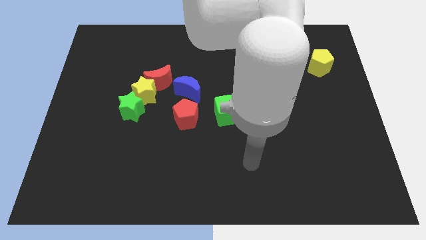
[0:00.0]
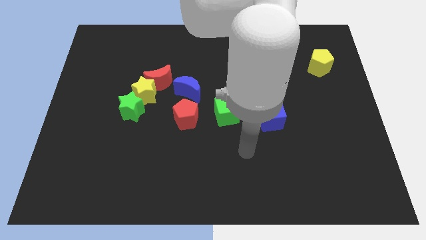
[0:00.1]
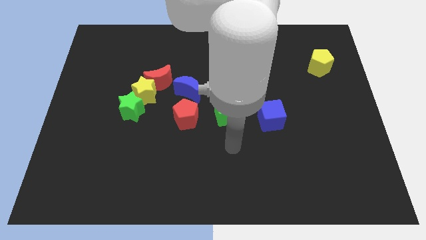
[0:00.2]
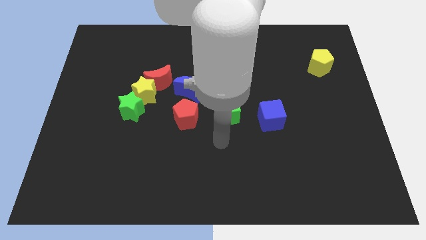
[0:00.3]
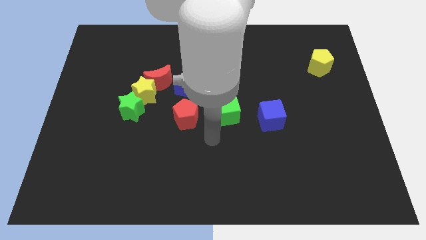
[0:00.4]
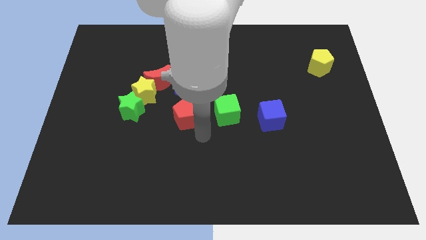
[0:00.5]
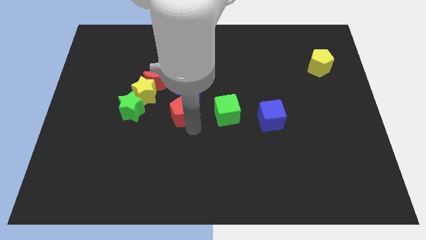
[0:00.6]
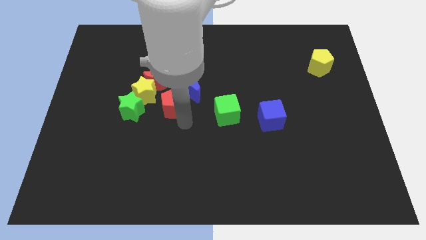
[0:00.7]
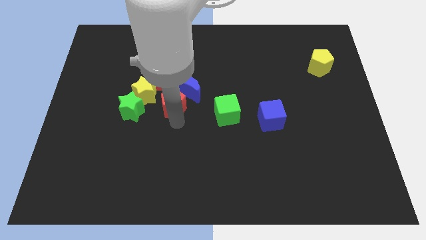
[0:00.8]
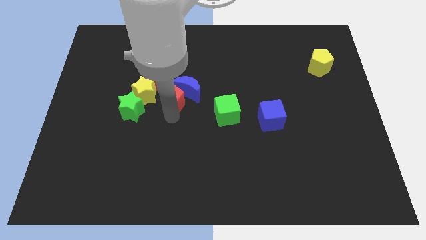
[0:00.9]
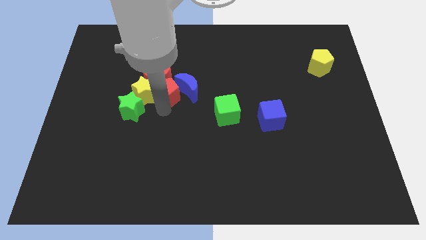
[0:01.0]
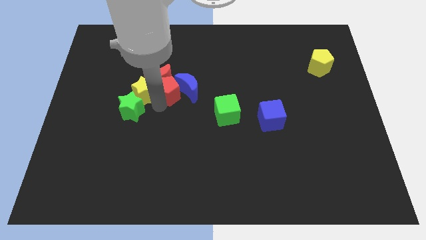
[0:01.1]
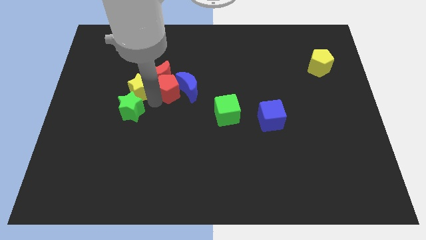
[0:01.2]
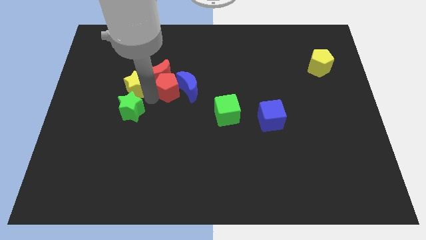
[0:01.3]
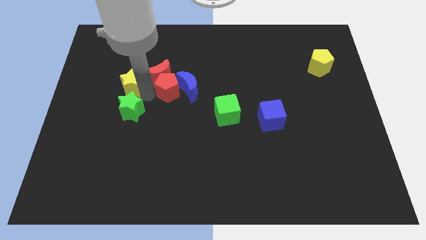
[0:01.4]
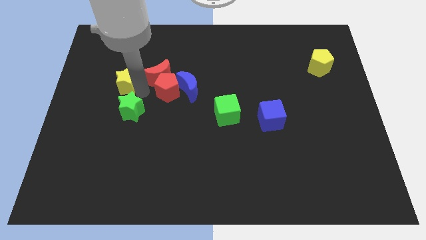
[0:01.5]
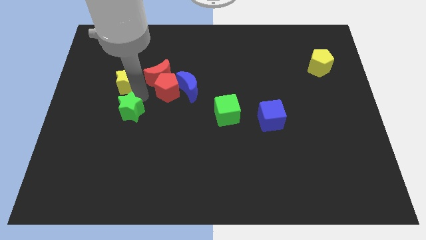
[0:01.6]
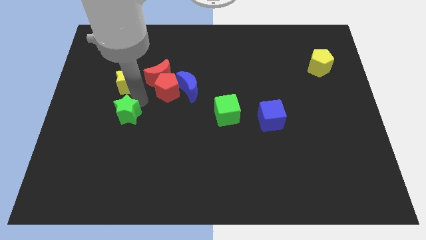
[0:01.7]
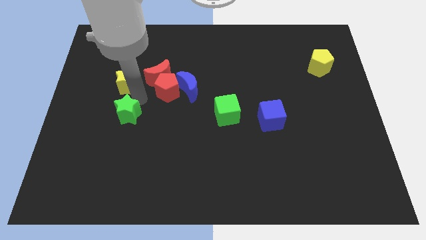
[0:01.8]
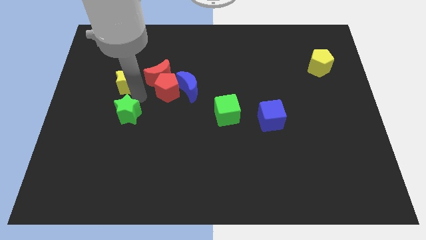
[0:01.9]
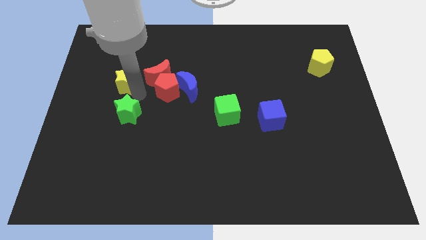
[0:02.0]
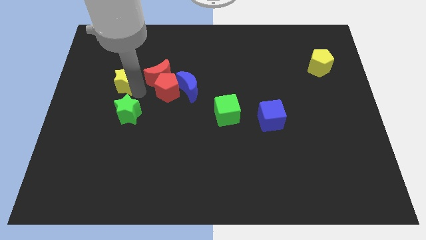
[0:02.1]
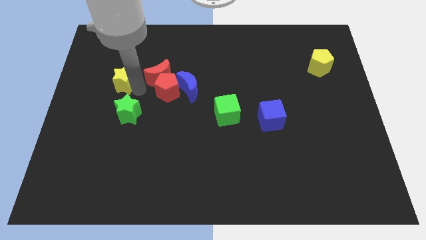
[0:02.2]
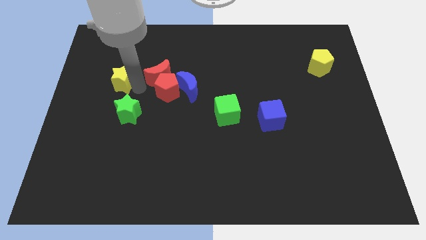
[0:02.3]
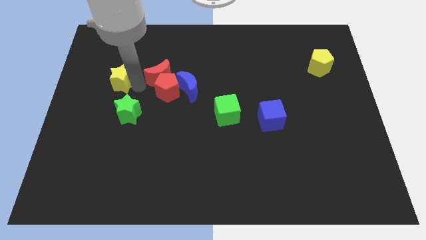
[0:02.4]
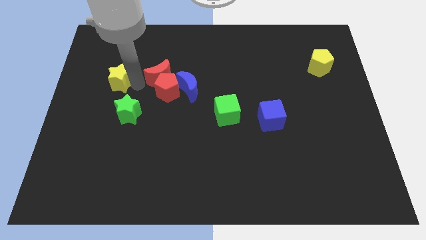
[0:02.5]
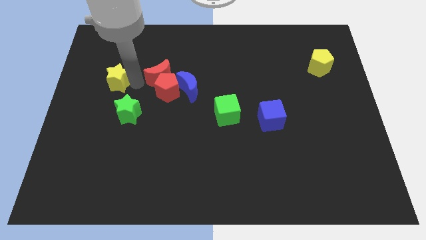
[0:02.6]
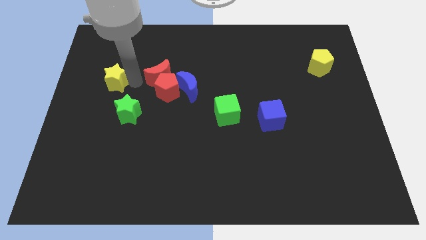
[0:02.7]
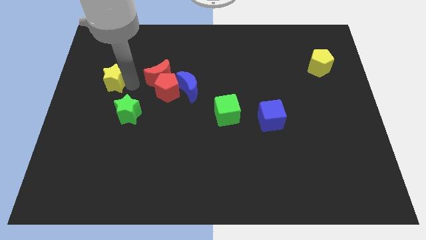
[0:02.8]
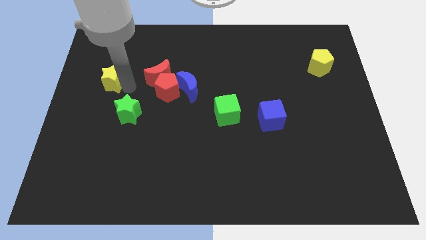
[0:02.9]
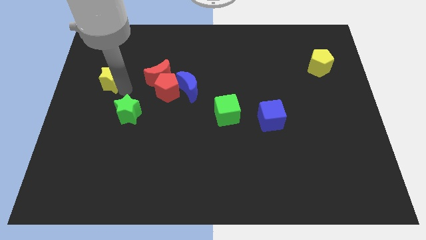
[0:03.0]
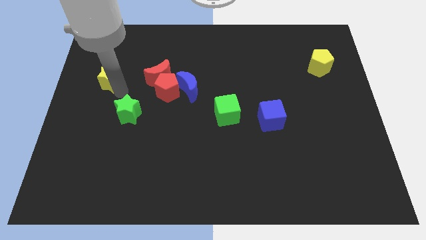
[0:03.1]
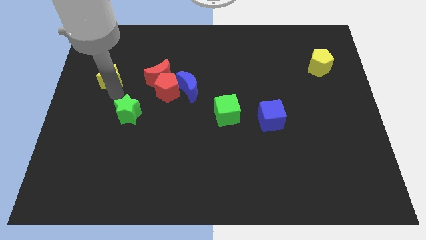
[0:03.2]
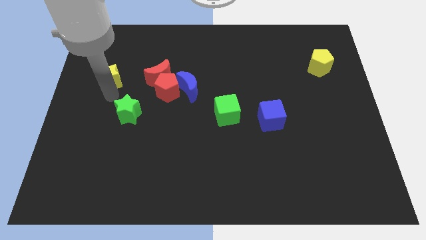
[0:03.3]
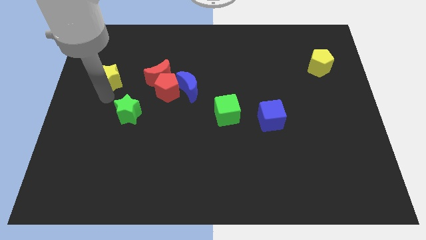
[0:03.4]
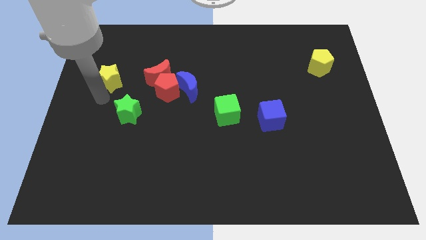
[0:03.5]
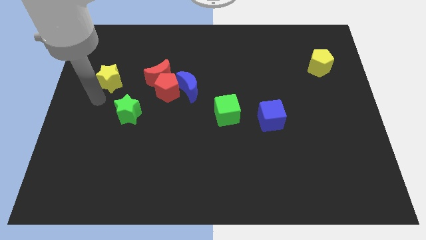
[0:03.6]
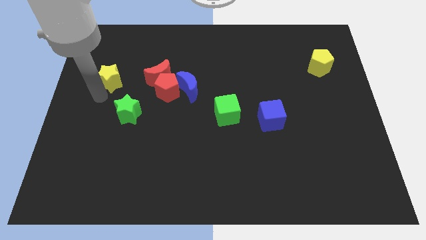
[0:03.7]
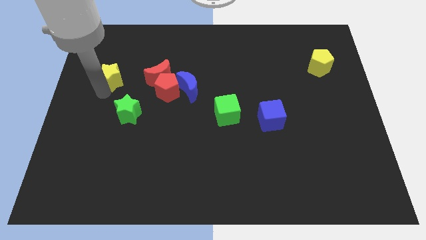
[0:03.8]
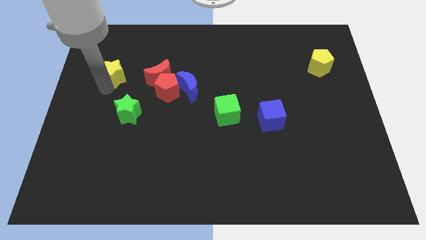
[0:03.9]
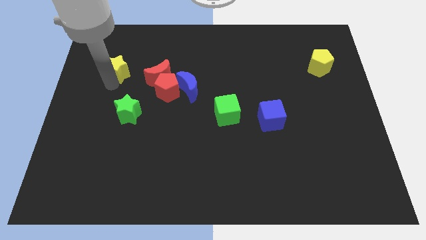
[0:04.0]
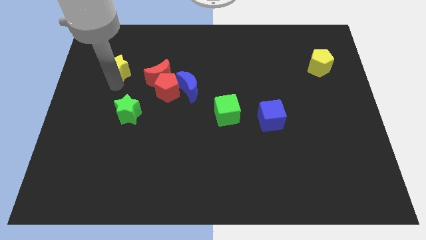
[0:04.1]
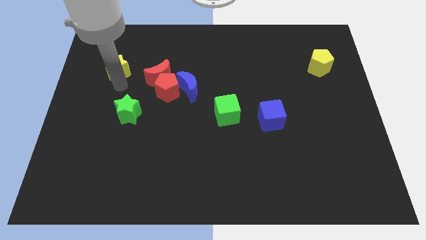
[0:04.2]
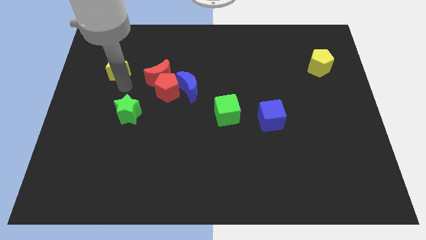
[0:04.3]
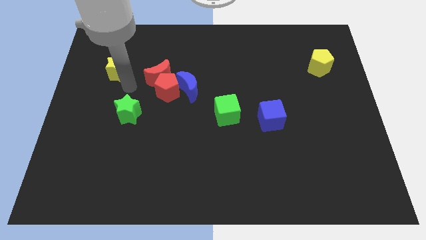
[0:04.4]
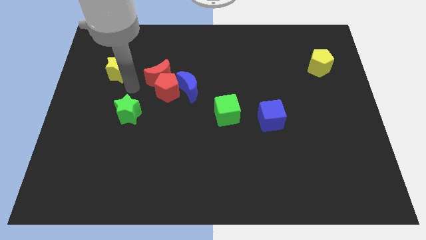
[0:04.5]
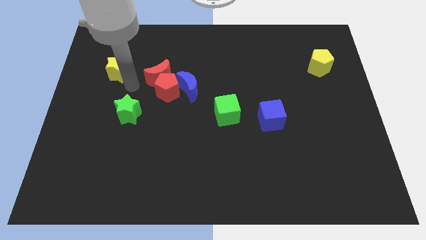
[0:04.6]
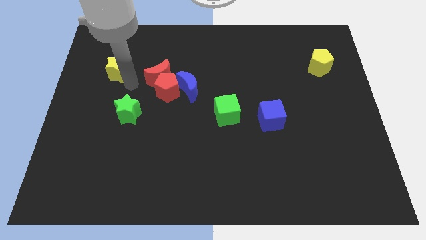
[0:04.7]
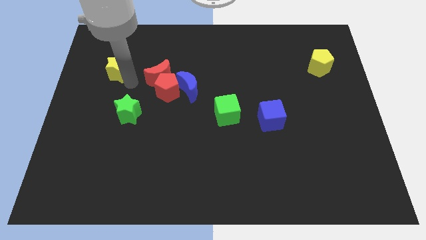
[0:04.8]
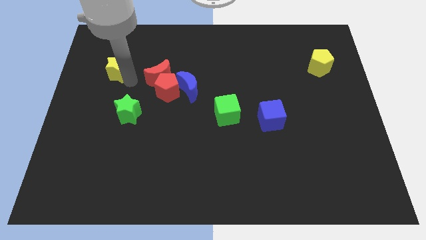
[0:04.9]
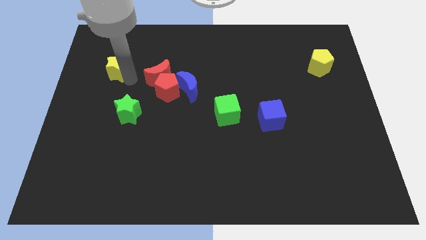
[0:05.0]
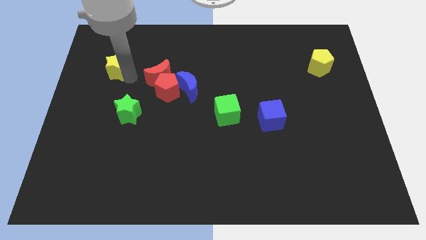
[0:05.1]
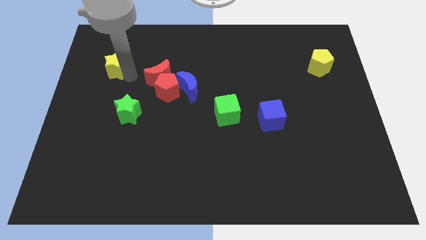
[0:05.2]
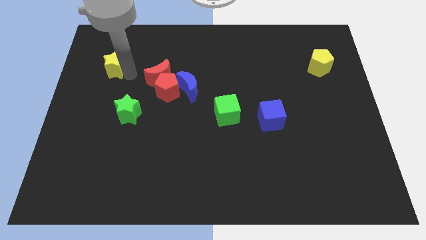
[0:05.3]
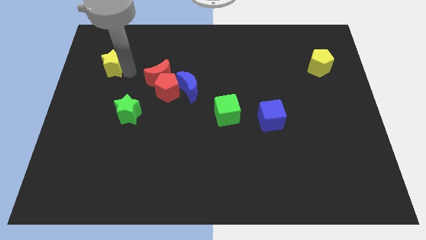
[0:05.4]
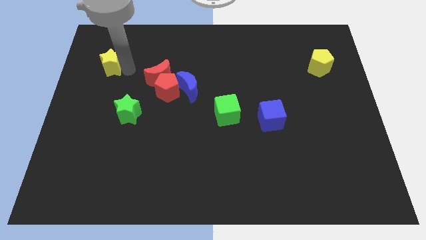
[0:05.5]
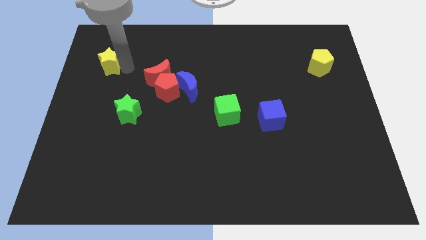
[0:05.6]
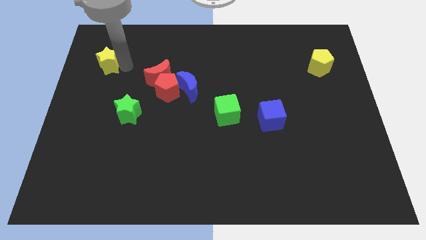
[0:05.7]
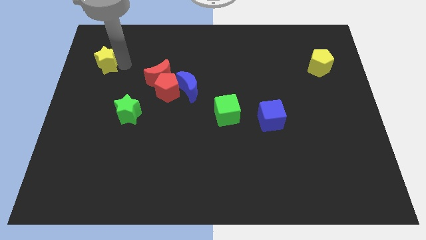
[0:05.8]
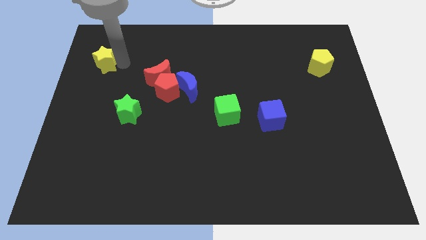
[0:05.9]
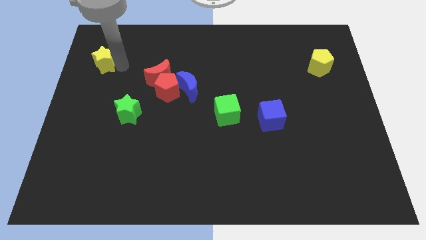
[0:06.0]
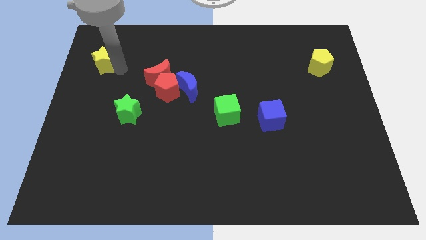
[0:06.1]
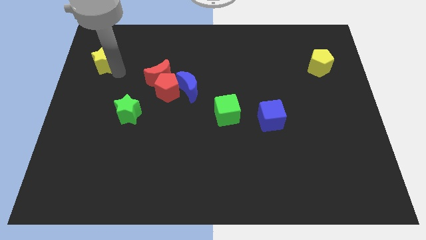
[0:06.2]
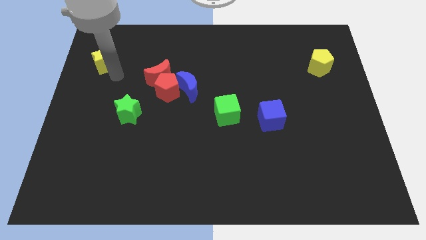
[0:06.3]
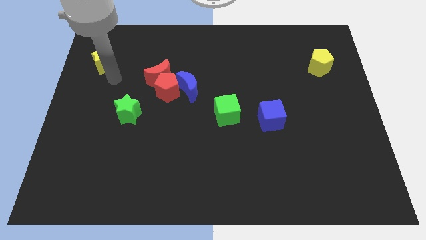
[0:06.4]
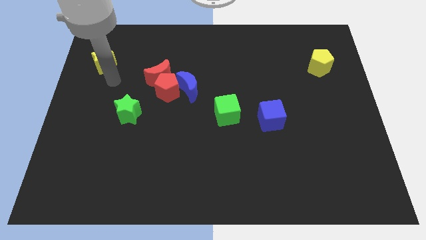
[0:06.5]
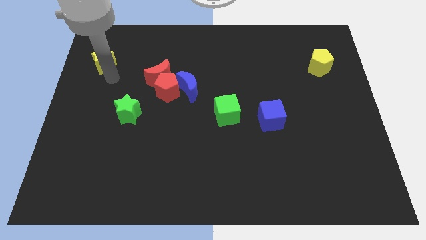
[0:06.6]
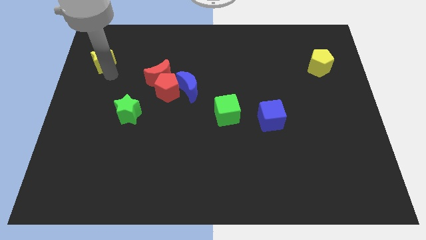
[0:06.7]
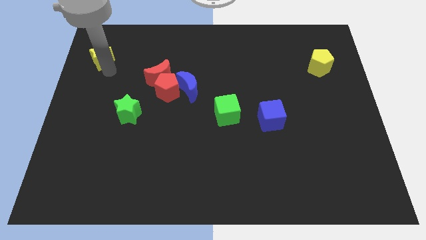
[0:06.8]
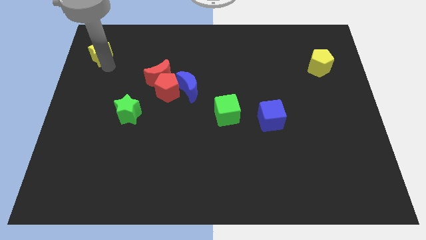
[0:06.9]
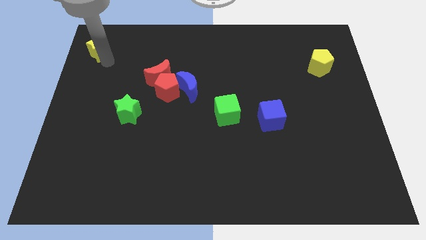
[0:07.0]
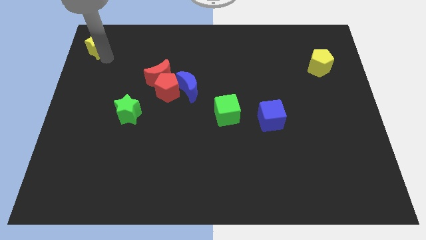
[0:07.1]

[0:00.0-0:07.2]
slide the yellow star to the top left
